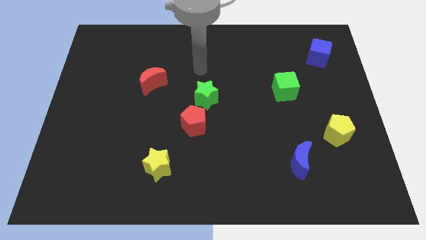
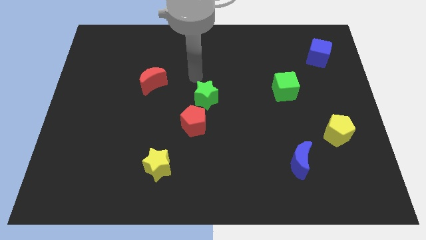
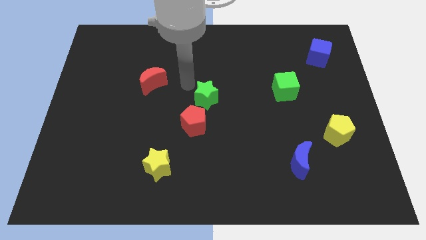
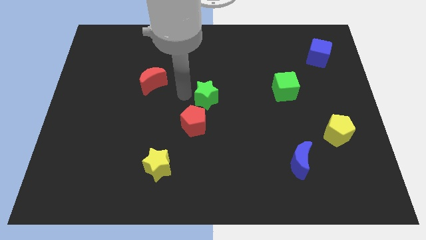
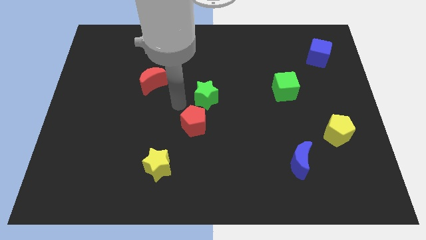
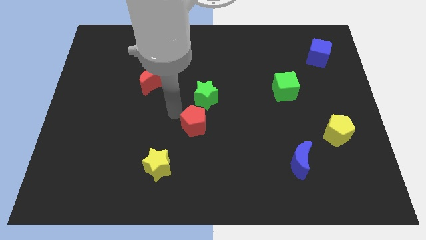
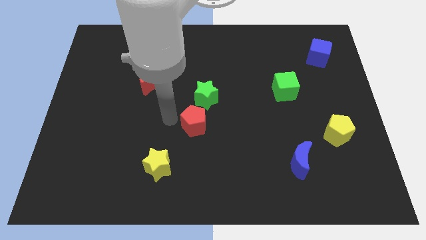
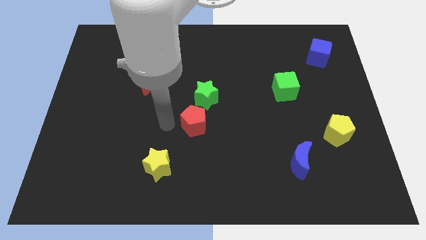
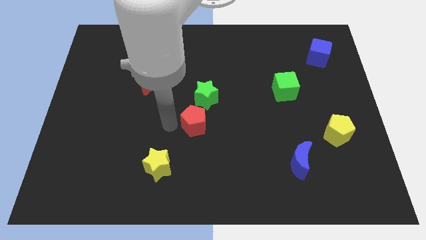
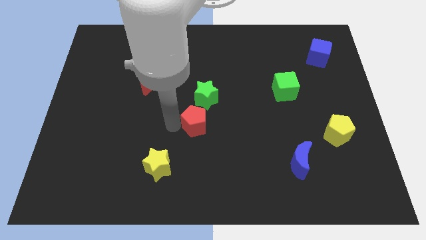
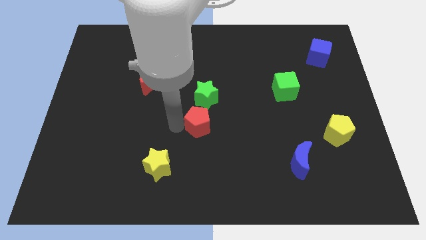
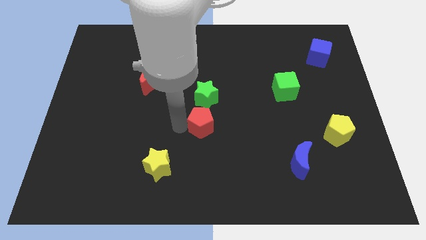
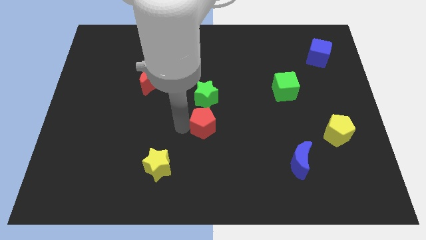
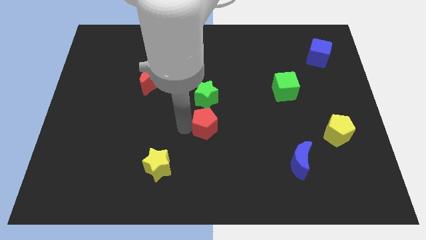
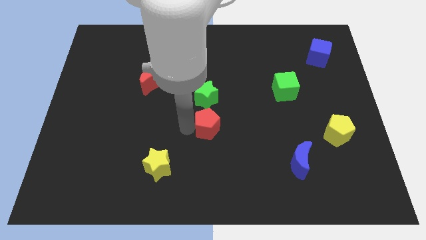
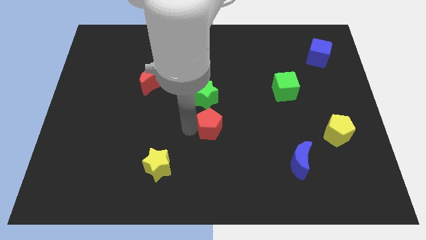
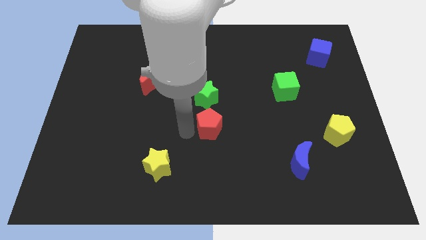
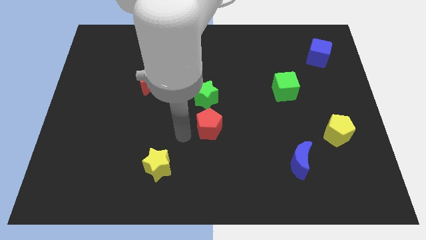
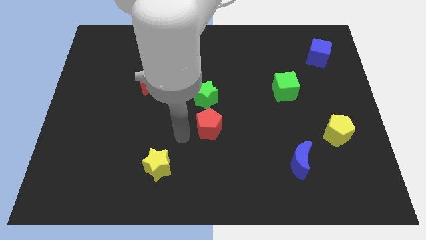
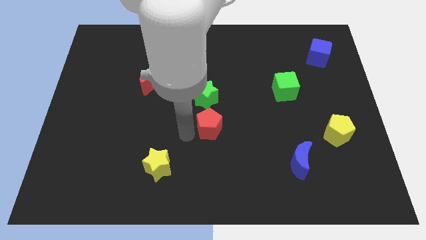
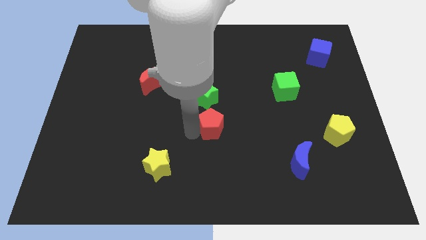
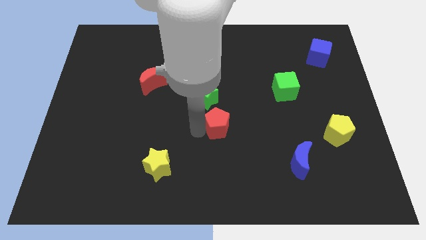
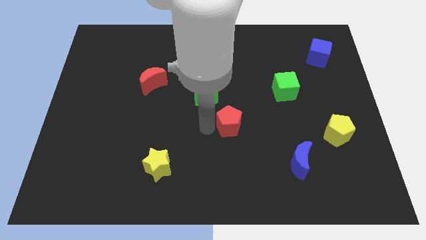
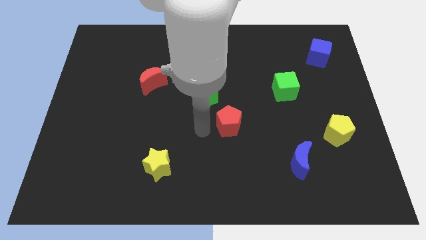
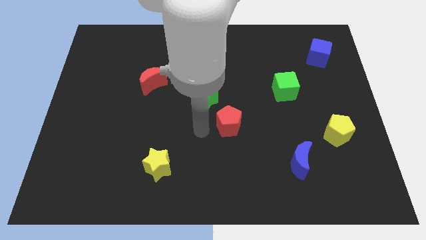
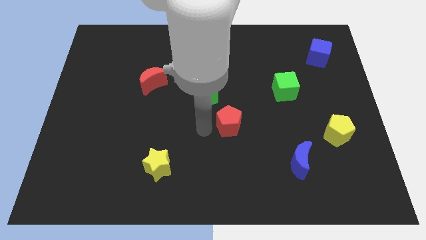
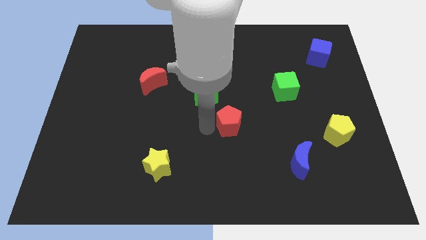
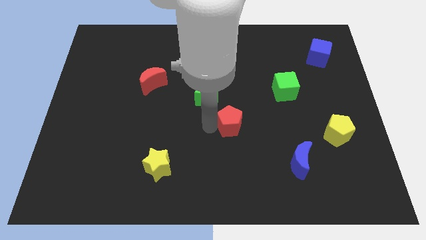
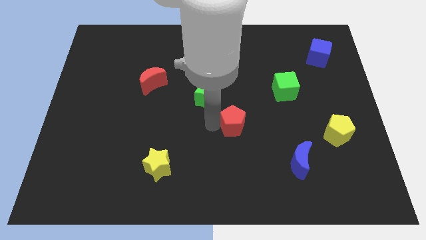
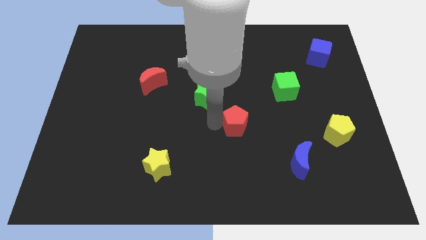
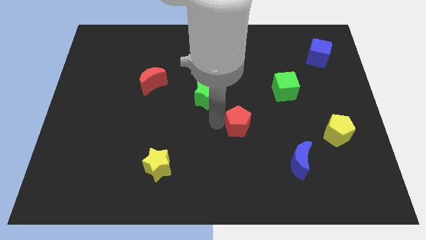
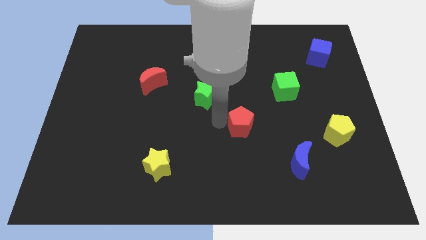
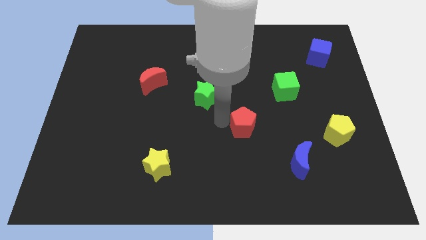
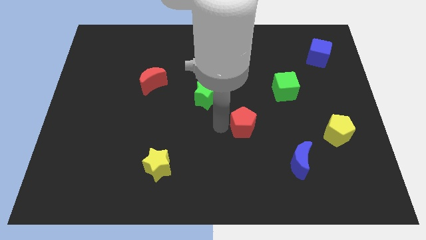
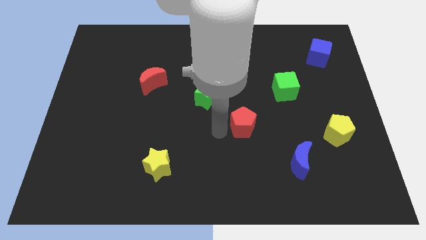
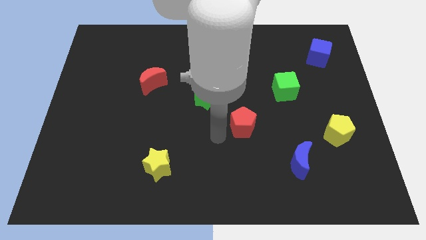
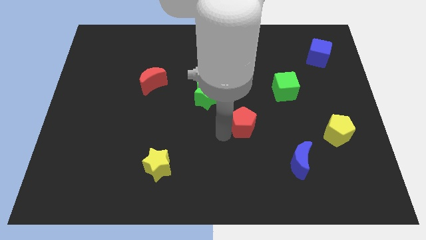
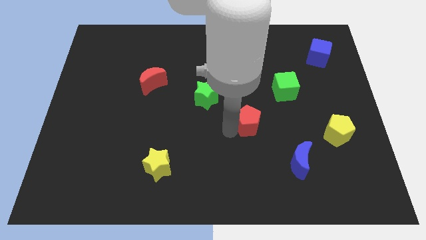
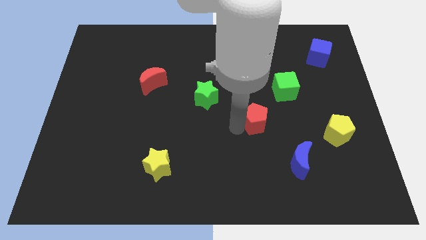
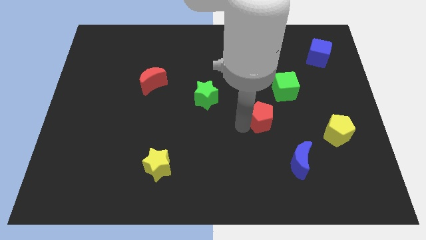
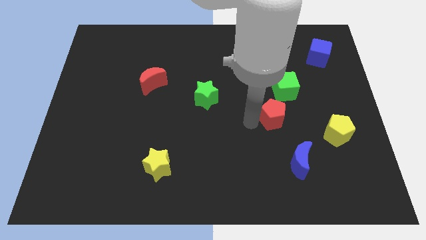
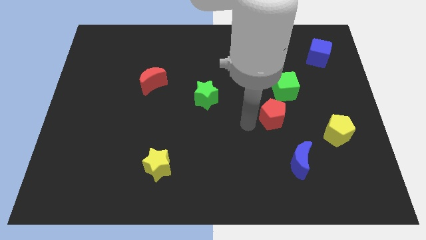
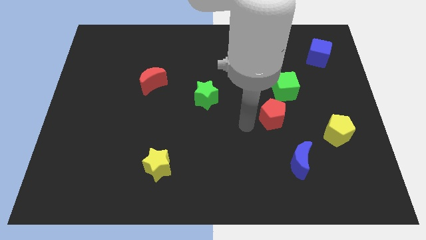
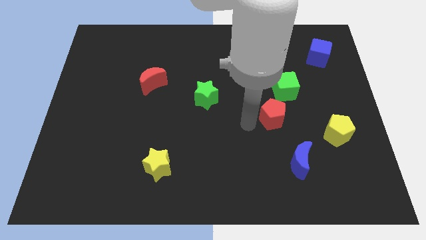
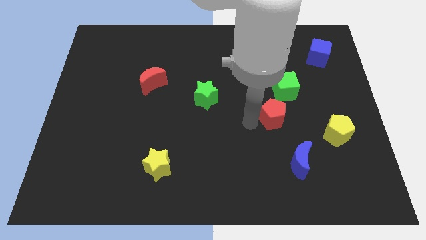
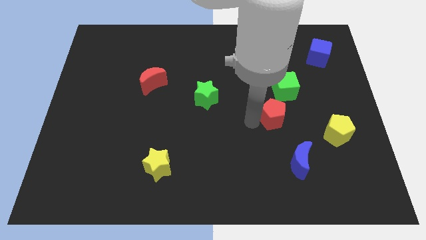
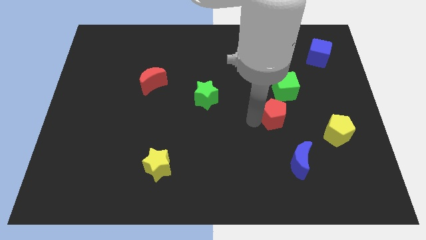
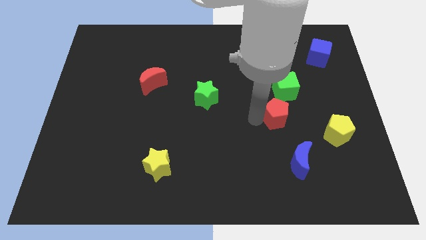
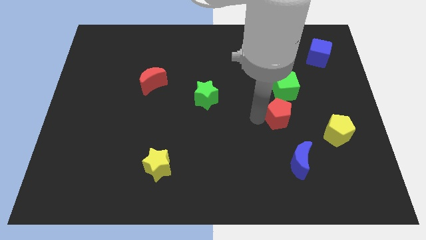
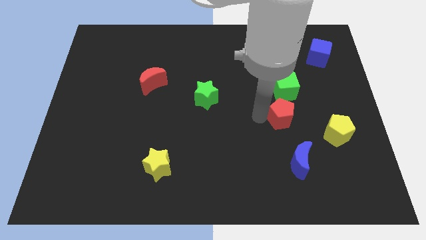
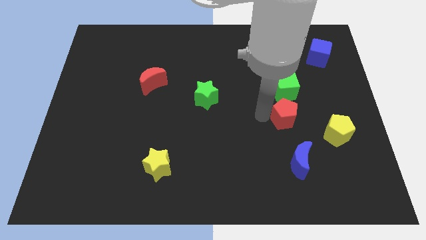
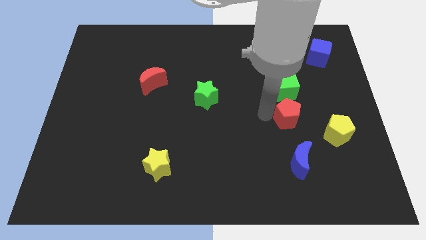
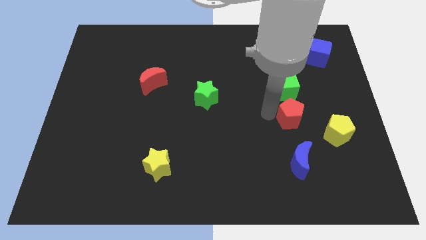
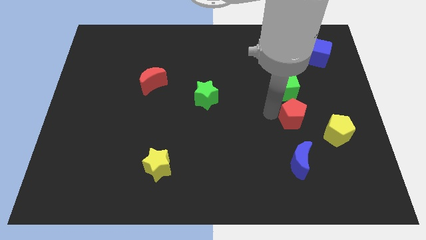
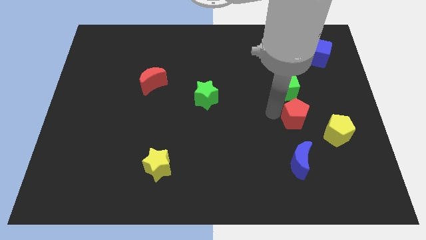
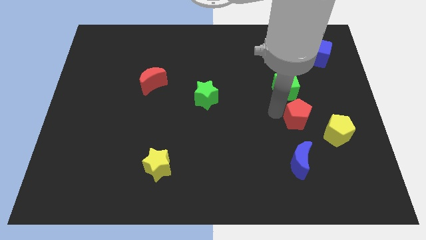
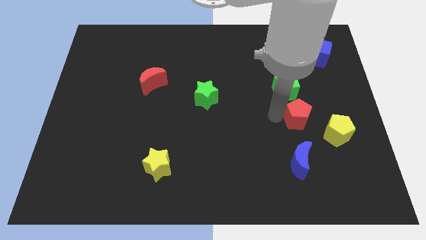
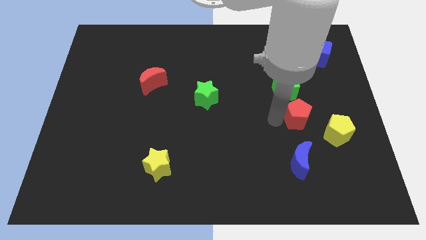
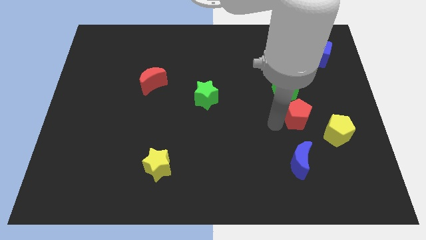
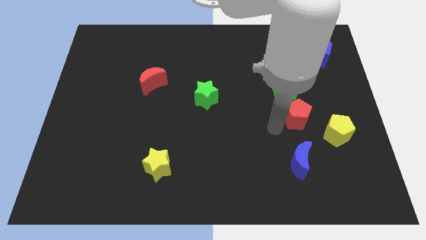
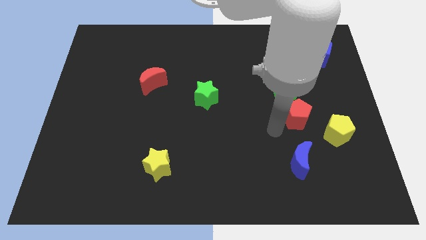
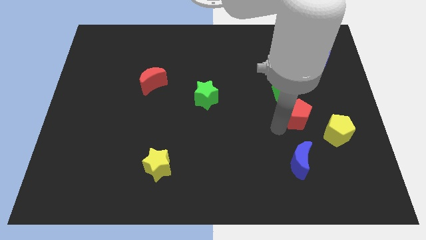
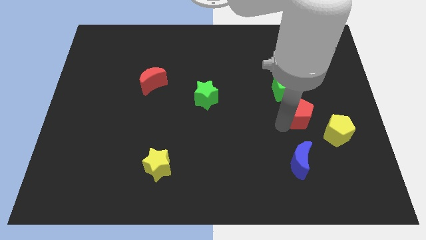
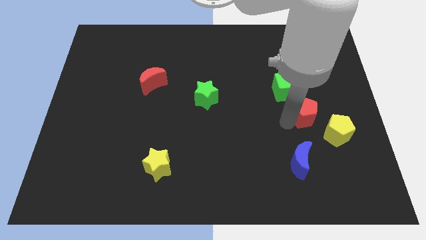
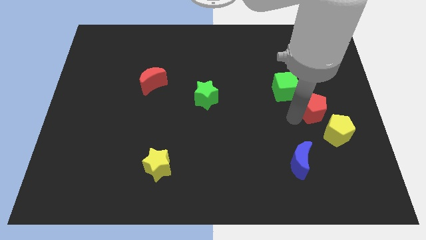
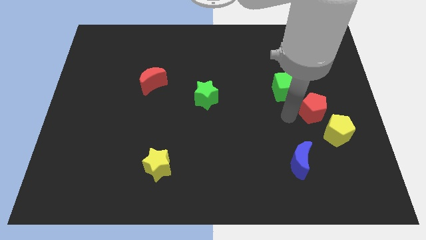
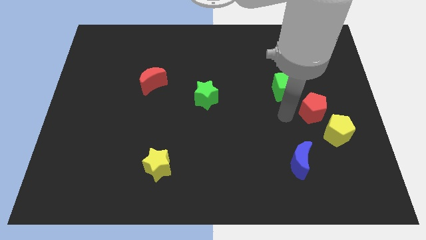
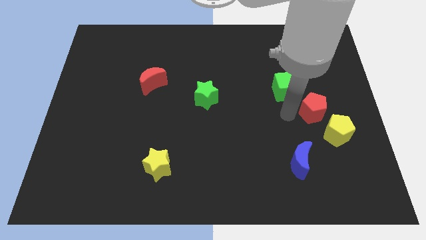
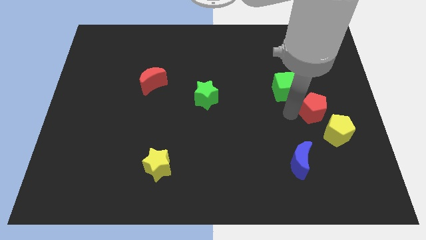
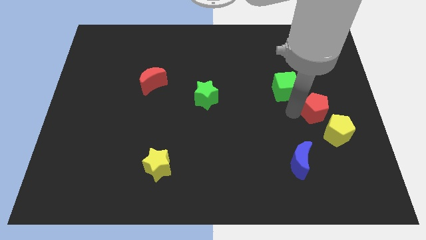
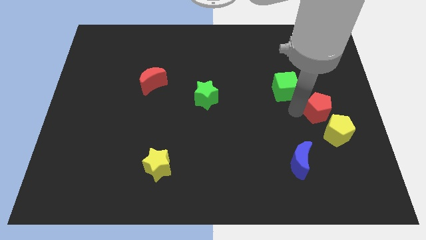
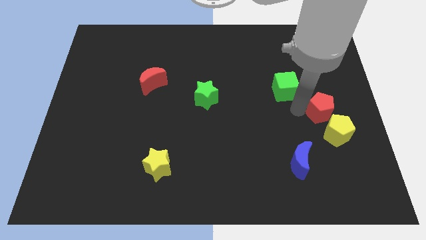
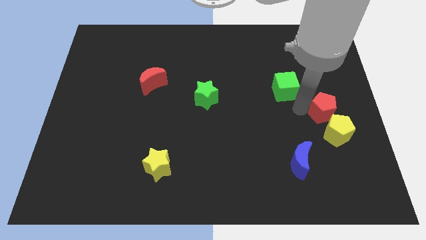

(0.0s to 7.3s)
push the red pentagon to the center right
